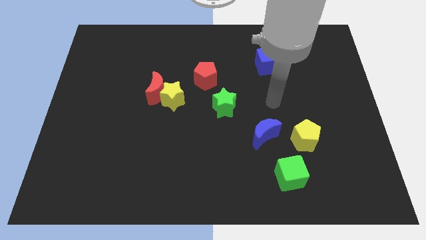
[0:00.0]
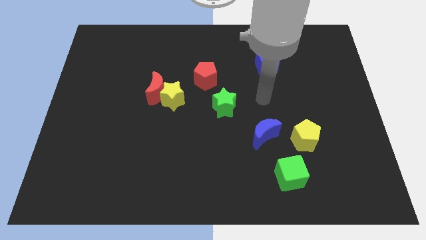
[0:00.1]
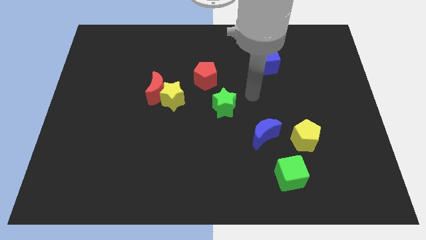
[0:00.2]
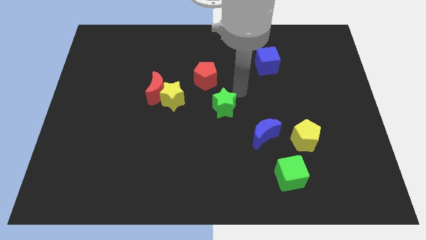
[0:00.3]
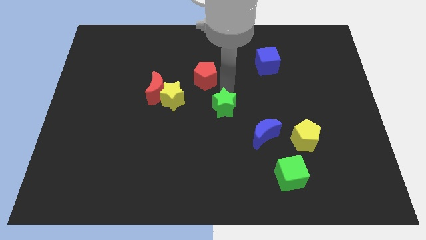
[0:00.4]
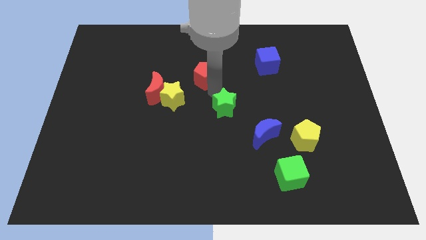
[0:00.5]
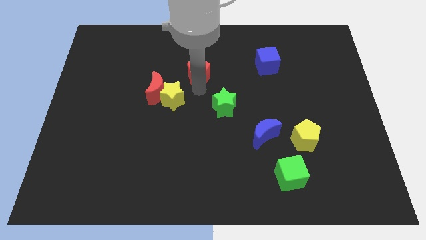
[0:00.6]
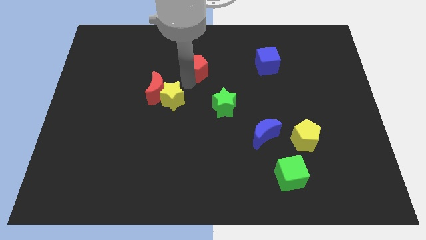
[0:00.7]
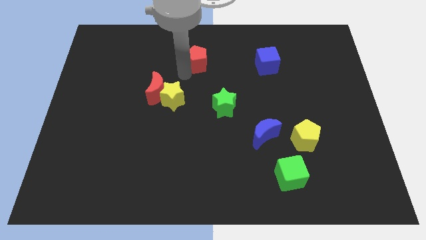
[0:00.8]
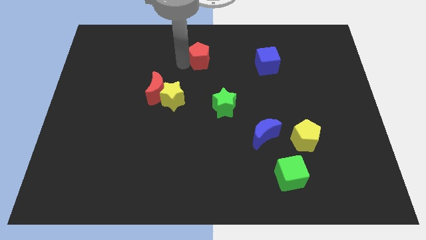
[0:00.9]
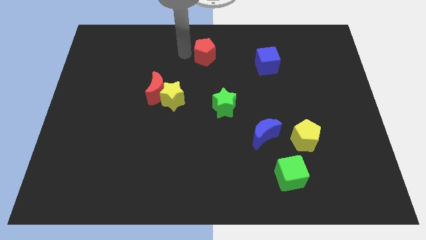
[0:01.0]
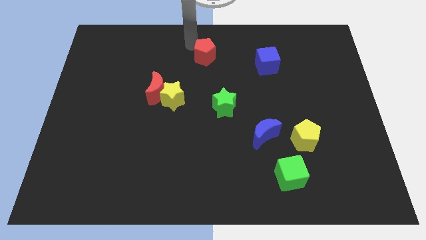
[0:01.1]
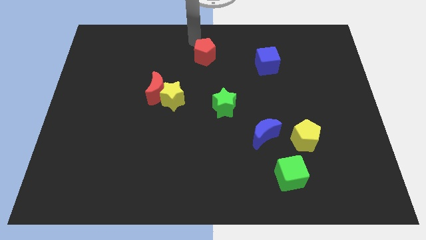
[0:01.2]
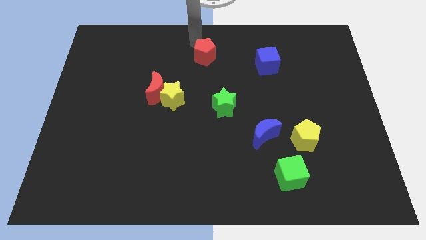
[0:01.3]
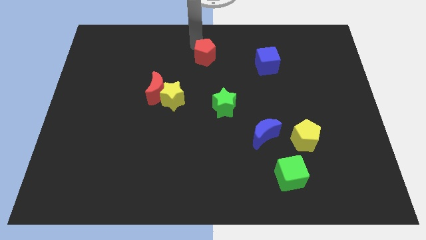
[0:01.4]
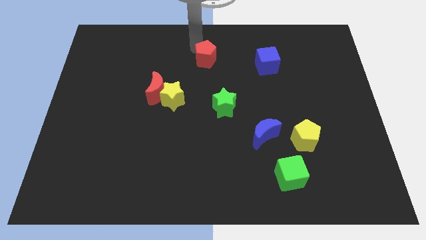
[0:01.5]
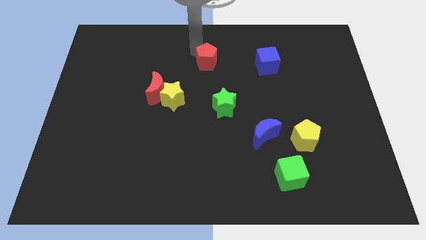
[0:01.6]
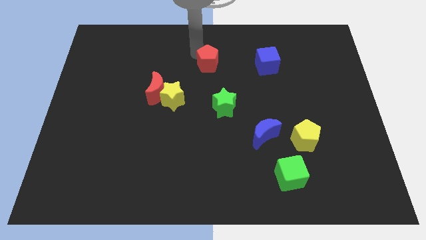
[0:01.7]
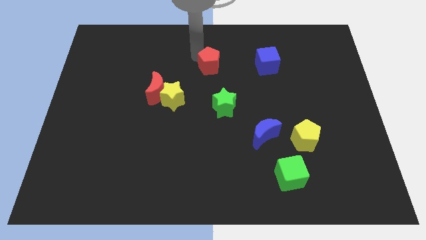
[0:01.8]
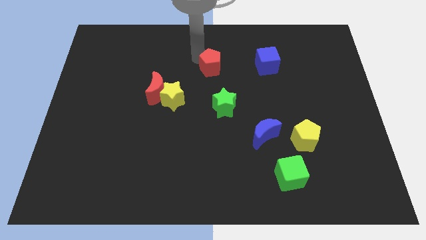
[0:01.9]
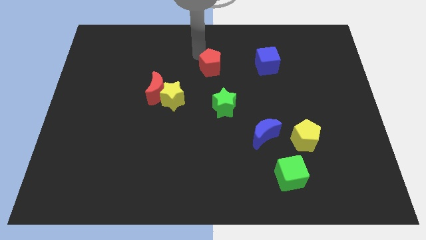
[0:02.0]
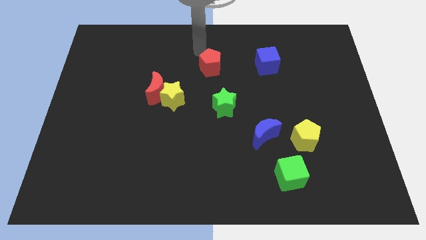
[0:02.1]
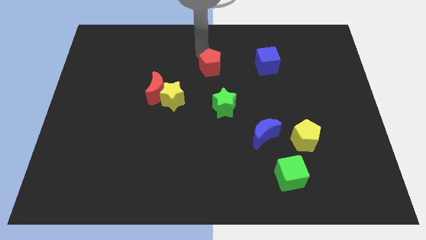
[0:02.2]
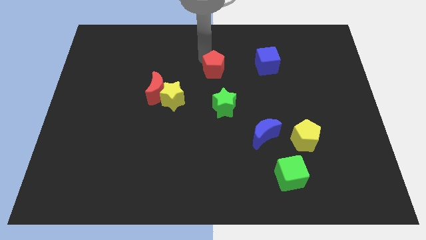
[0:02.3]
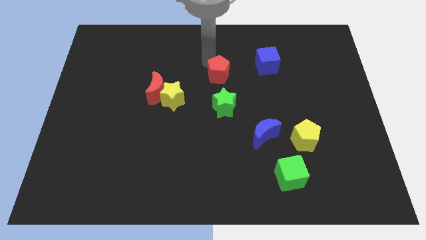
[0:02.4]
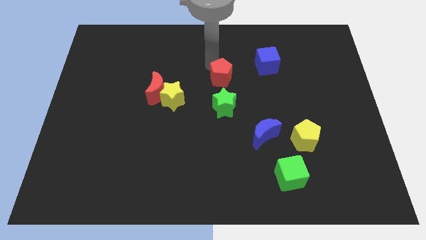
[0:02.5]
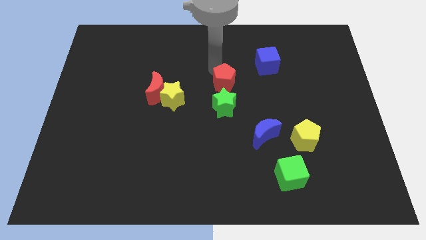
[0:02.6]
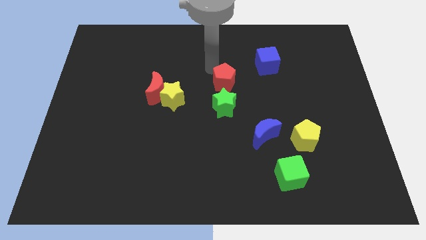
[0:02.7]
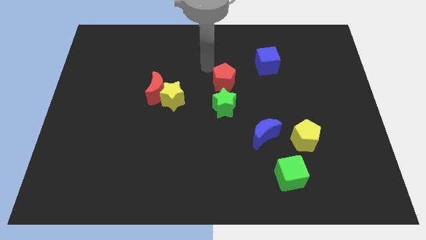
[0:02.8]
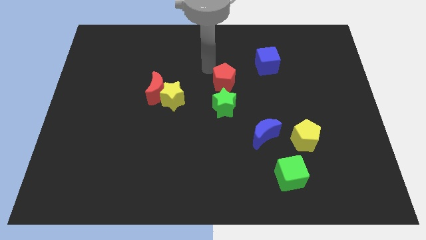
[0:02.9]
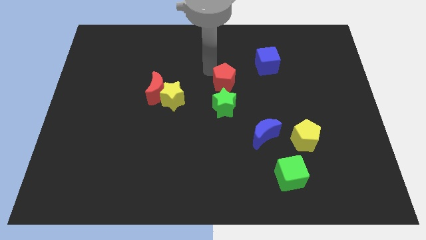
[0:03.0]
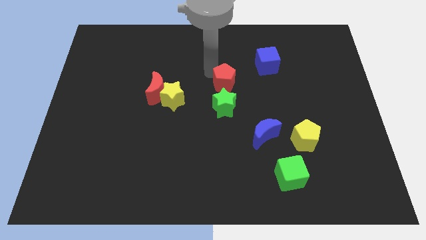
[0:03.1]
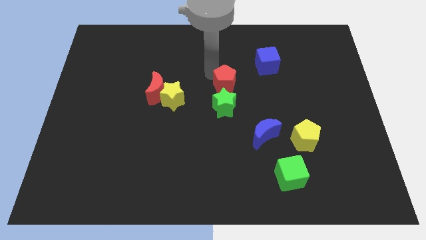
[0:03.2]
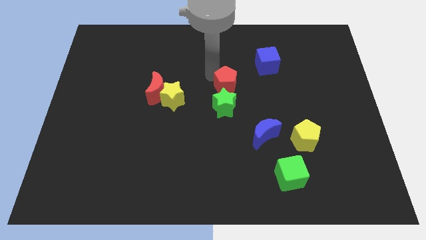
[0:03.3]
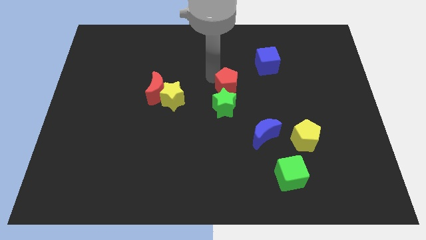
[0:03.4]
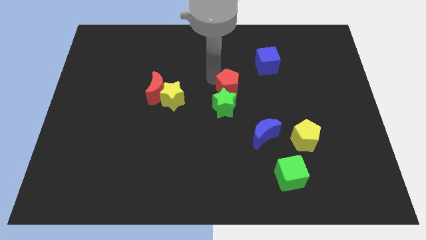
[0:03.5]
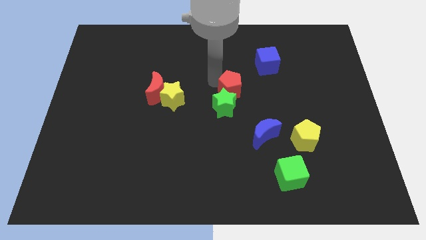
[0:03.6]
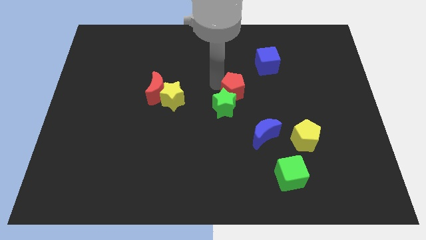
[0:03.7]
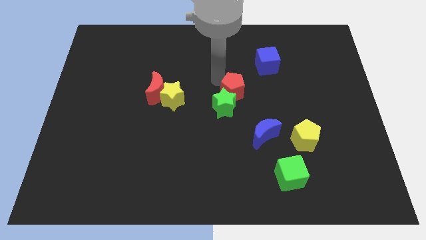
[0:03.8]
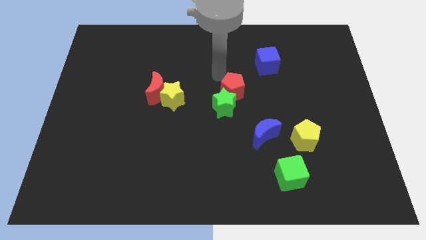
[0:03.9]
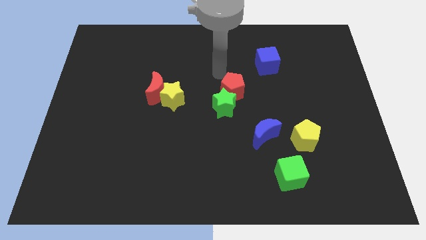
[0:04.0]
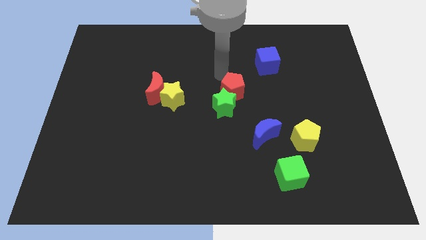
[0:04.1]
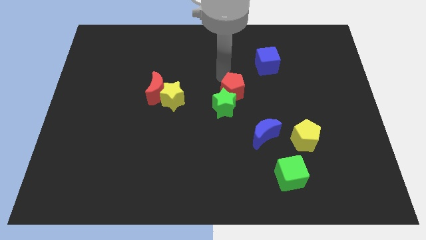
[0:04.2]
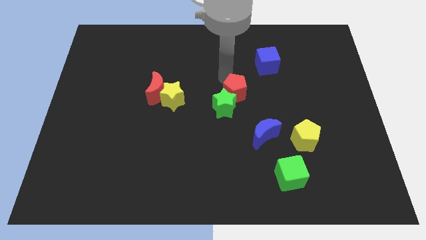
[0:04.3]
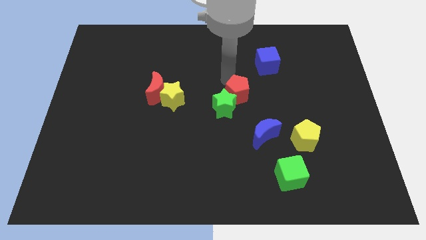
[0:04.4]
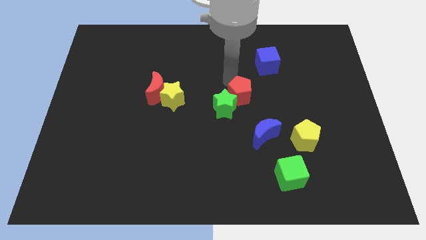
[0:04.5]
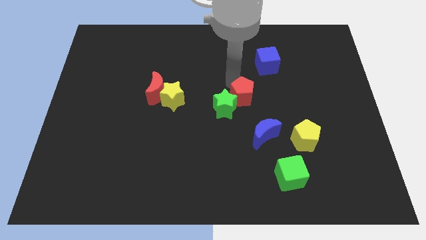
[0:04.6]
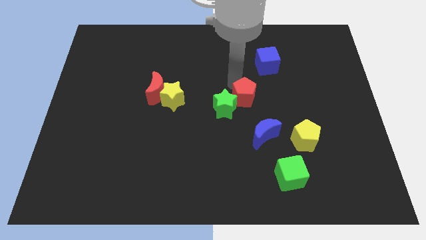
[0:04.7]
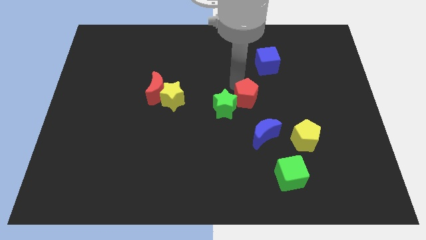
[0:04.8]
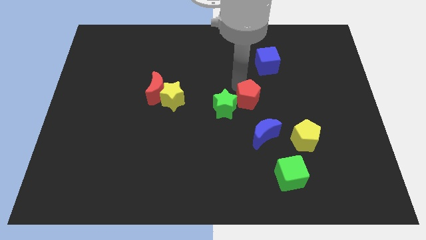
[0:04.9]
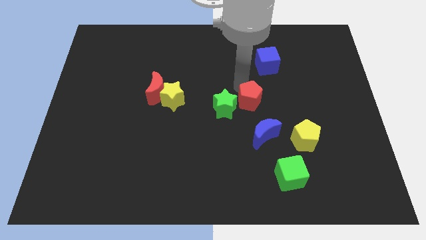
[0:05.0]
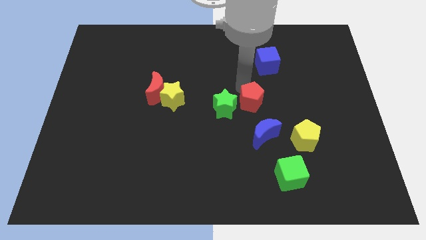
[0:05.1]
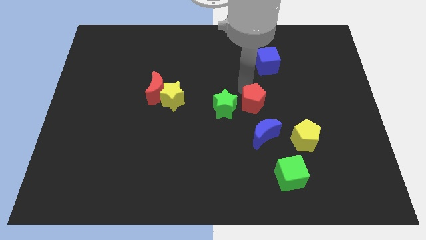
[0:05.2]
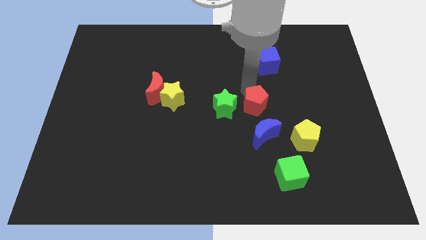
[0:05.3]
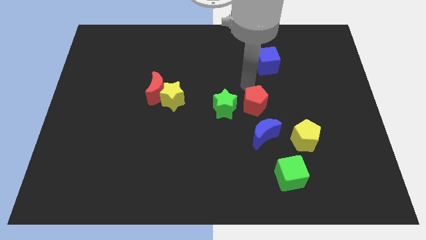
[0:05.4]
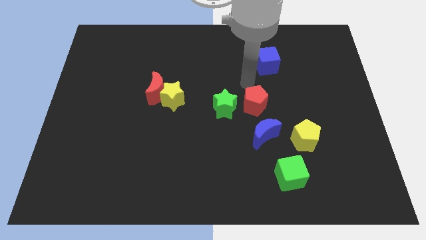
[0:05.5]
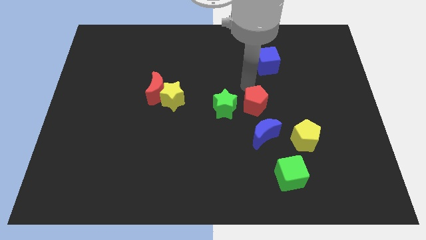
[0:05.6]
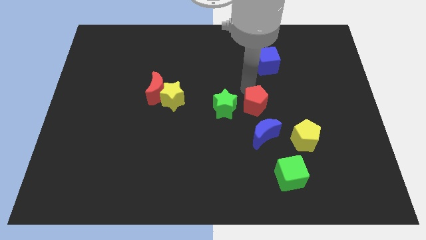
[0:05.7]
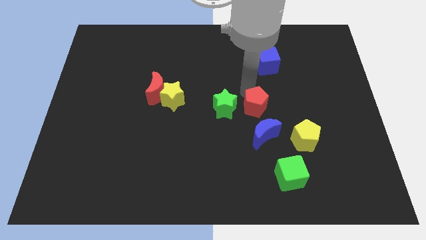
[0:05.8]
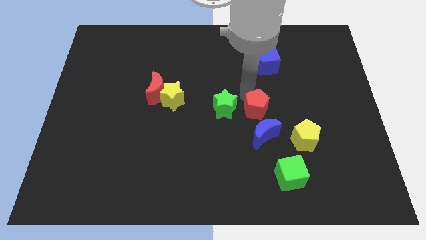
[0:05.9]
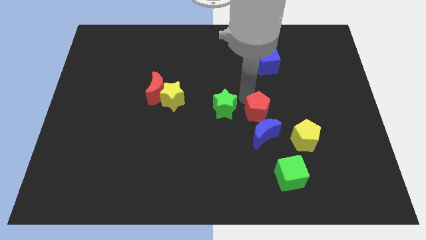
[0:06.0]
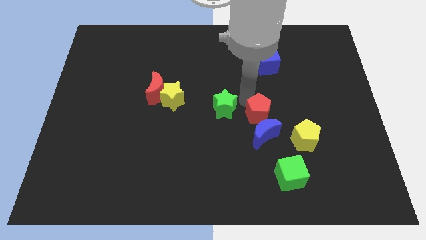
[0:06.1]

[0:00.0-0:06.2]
slide the red pentagon to the blue moon
